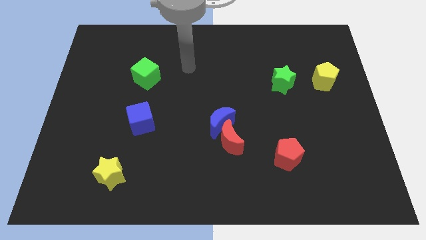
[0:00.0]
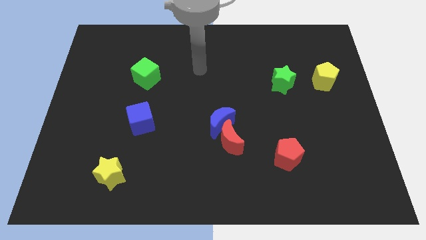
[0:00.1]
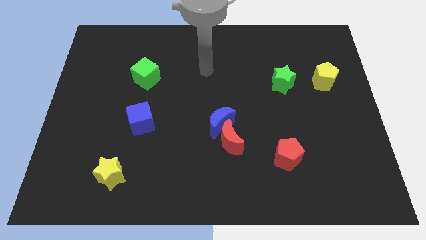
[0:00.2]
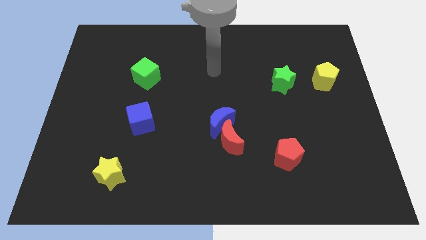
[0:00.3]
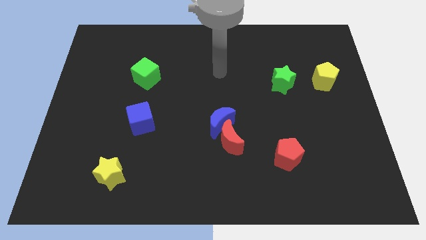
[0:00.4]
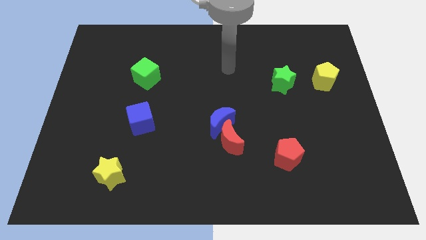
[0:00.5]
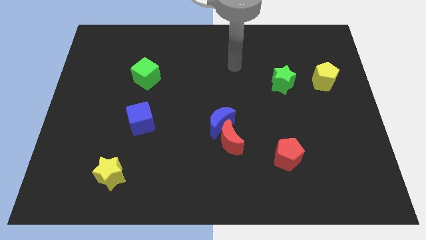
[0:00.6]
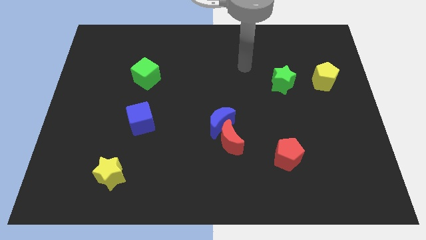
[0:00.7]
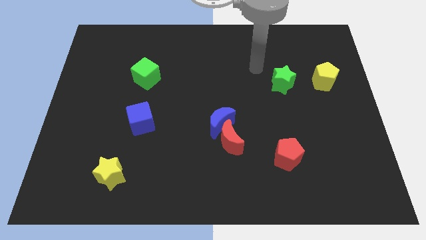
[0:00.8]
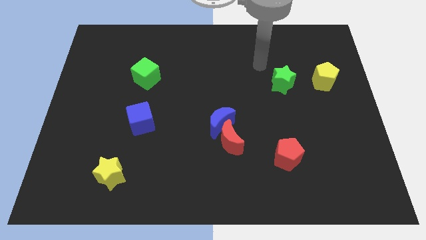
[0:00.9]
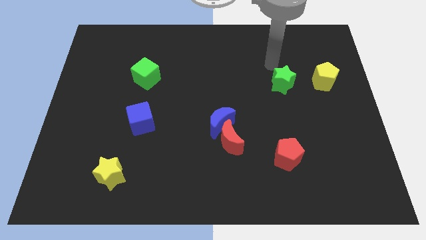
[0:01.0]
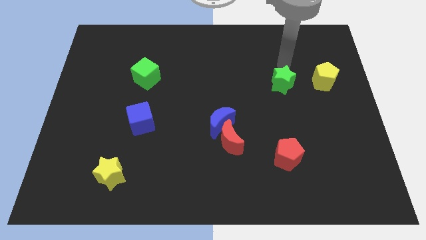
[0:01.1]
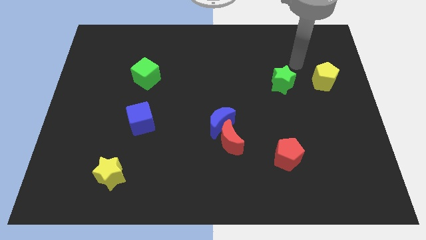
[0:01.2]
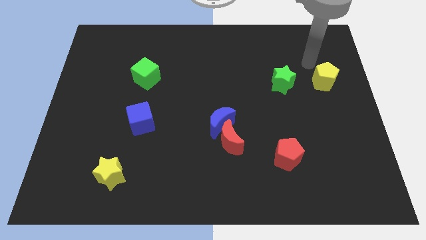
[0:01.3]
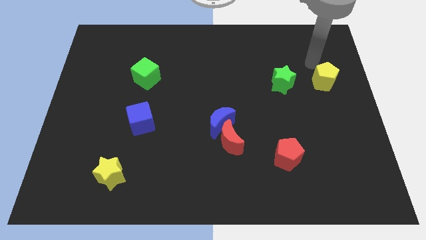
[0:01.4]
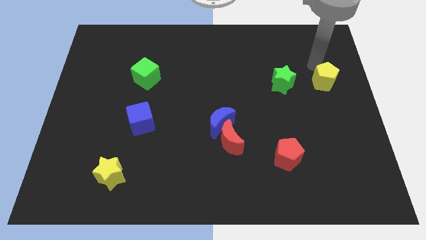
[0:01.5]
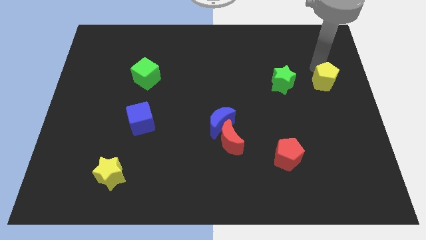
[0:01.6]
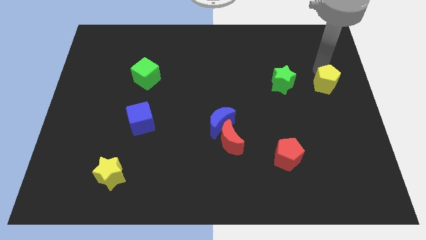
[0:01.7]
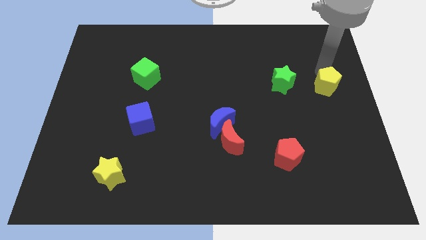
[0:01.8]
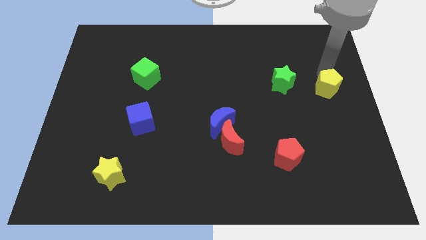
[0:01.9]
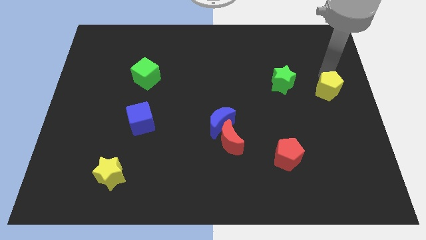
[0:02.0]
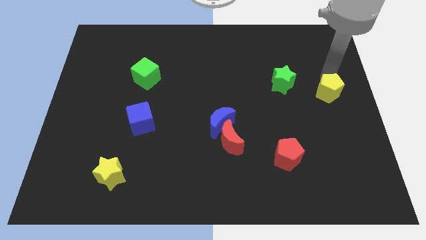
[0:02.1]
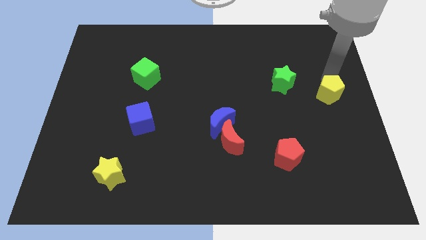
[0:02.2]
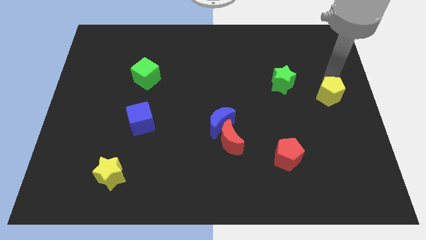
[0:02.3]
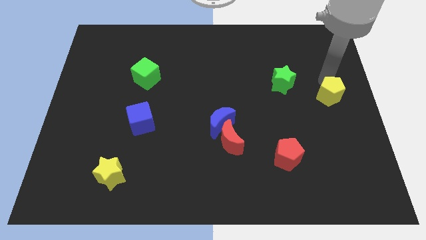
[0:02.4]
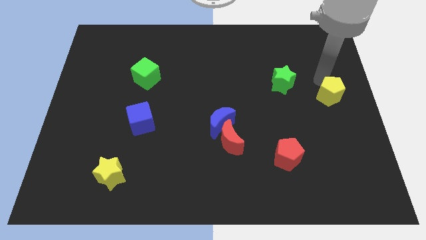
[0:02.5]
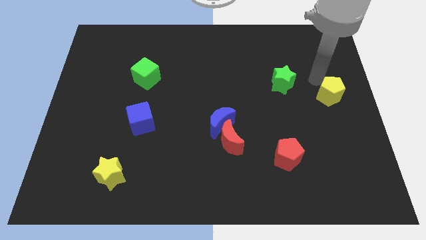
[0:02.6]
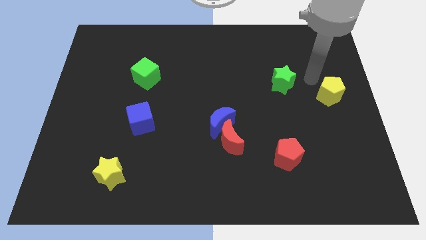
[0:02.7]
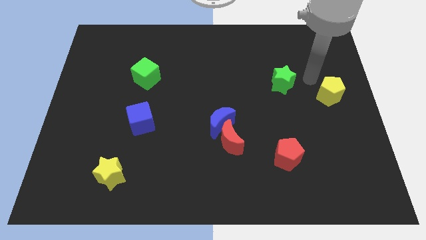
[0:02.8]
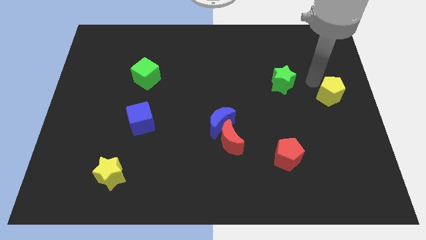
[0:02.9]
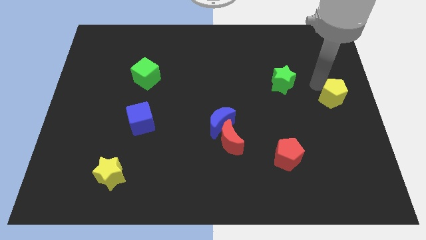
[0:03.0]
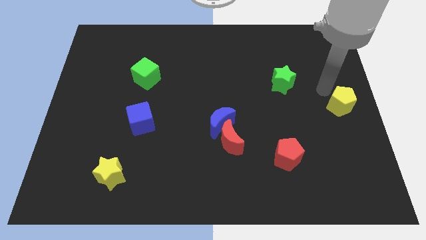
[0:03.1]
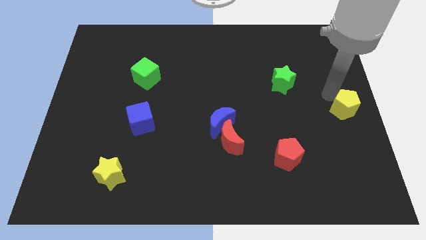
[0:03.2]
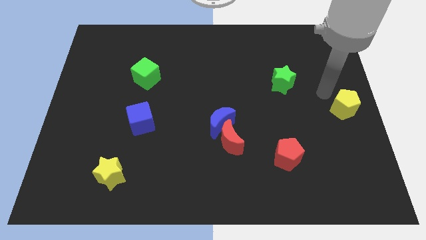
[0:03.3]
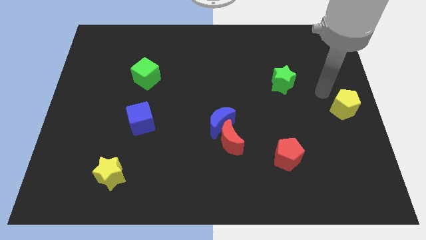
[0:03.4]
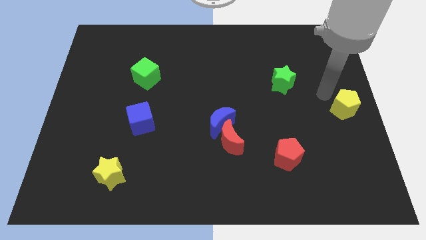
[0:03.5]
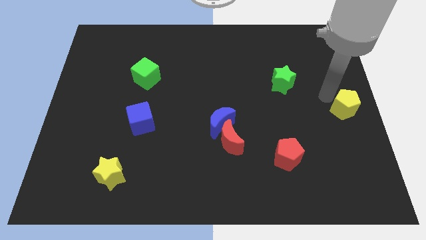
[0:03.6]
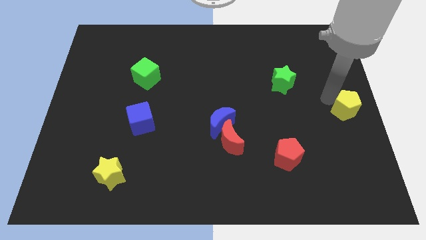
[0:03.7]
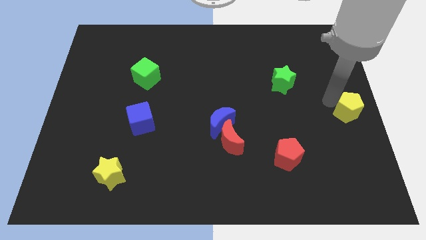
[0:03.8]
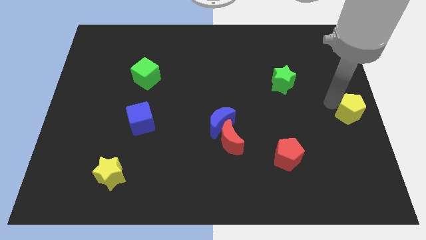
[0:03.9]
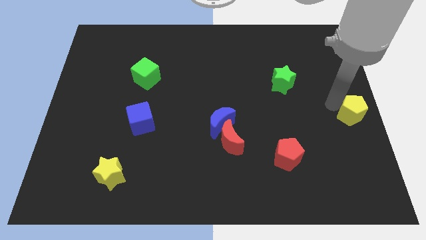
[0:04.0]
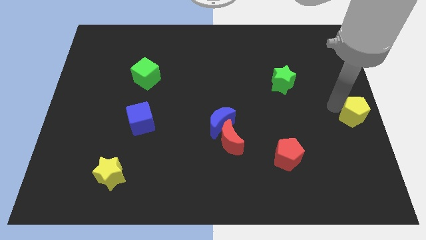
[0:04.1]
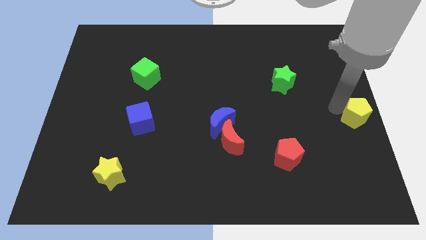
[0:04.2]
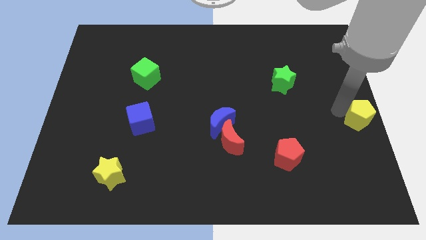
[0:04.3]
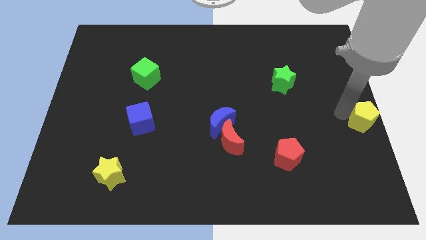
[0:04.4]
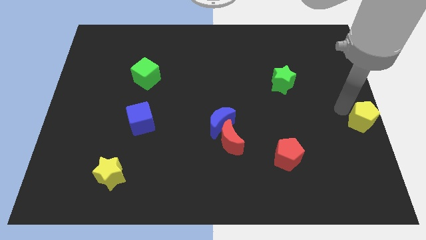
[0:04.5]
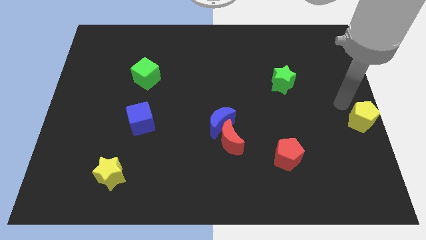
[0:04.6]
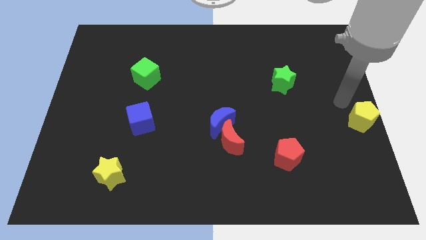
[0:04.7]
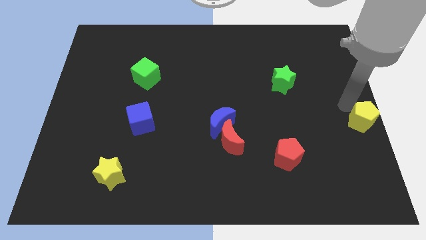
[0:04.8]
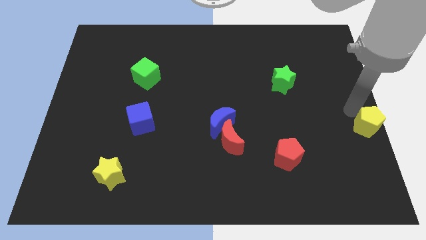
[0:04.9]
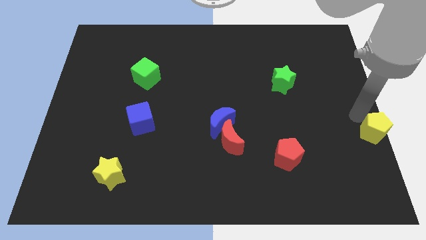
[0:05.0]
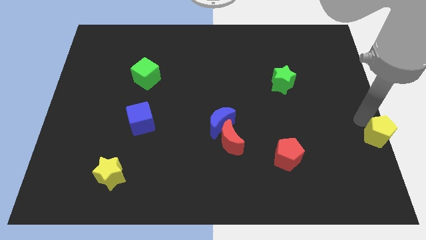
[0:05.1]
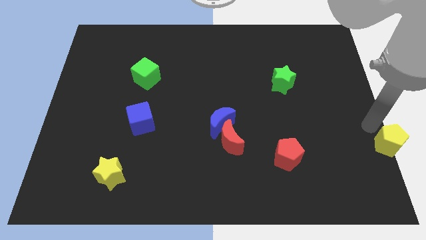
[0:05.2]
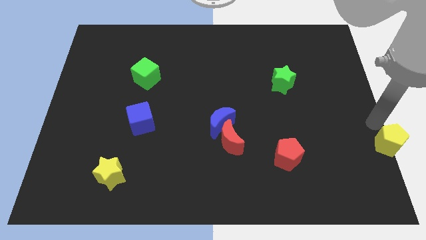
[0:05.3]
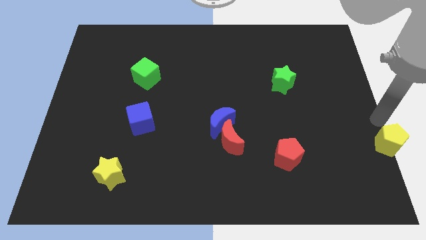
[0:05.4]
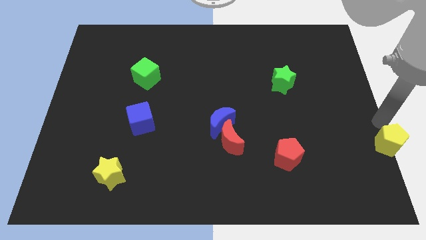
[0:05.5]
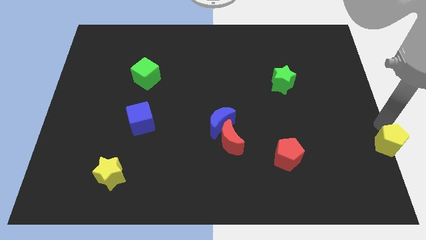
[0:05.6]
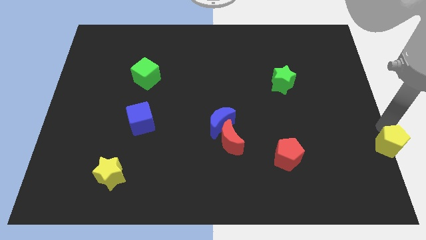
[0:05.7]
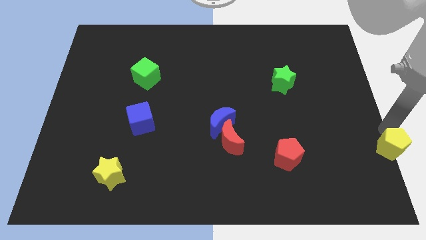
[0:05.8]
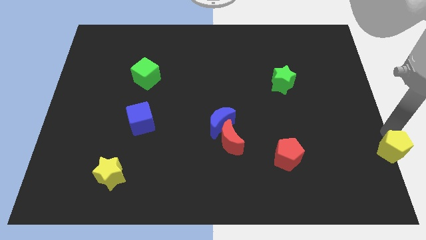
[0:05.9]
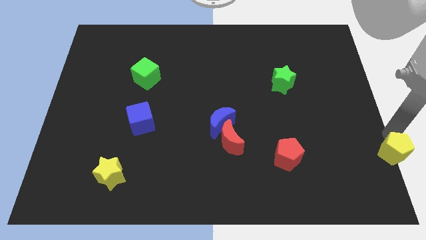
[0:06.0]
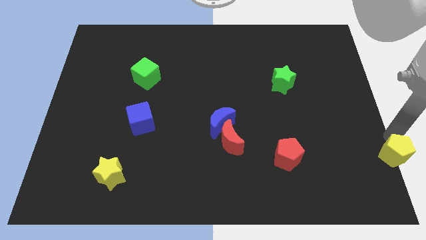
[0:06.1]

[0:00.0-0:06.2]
put the yellow pentagon to the bottom right of the board
